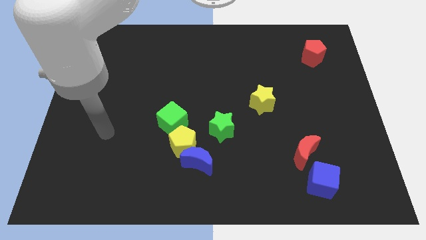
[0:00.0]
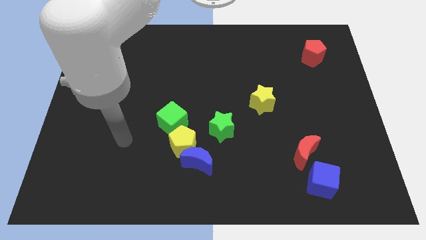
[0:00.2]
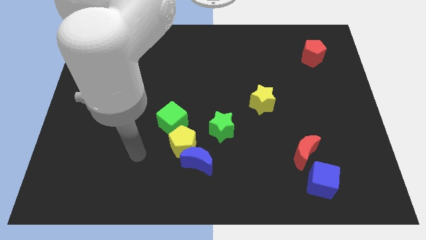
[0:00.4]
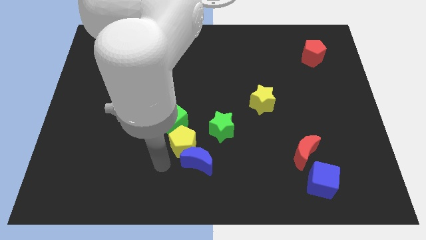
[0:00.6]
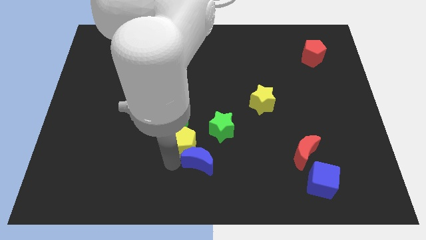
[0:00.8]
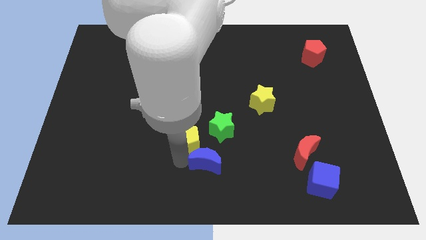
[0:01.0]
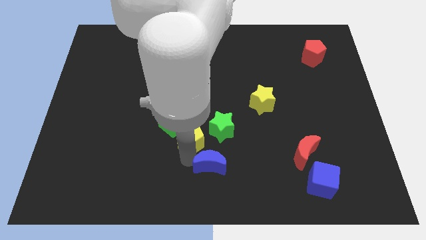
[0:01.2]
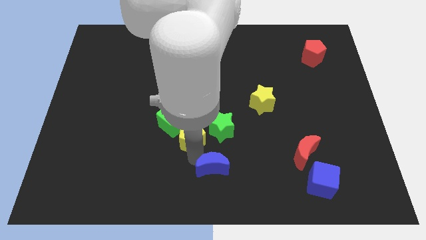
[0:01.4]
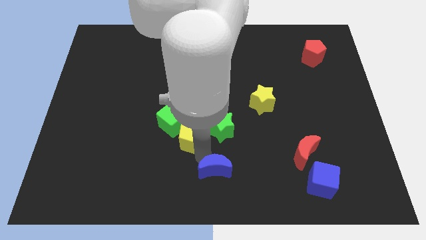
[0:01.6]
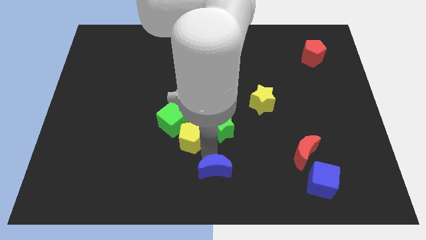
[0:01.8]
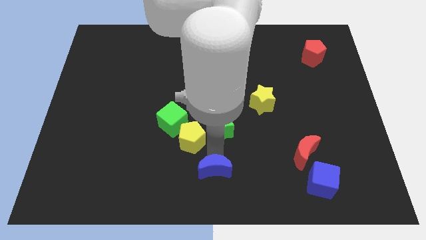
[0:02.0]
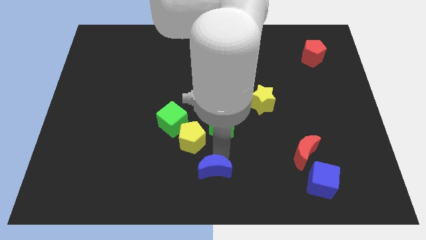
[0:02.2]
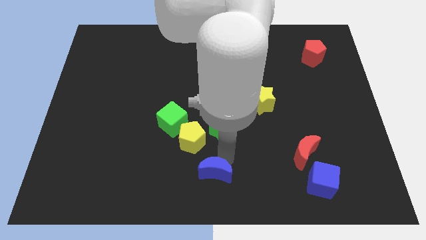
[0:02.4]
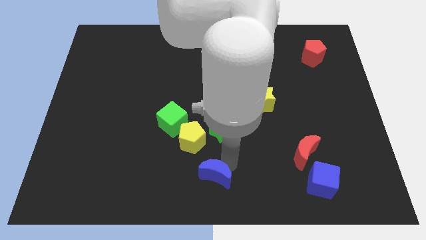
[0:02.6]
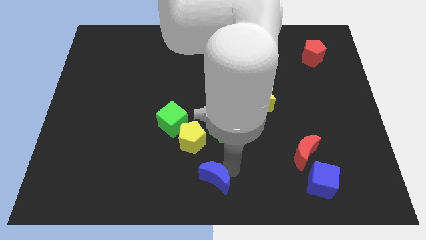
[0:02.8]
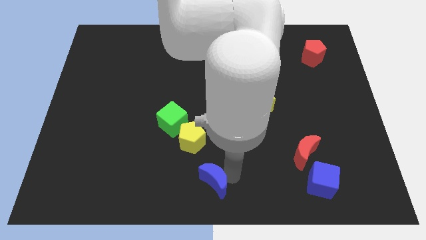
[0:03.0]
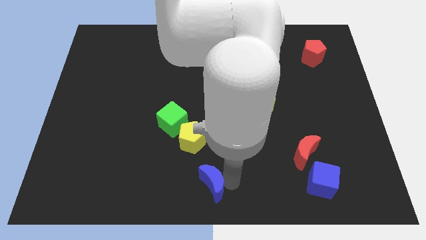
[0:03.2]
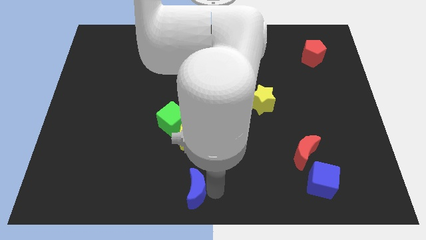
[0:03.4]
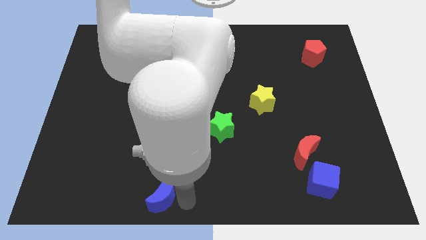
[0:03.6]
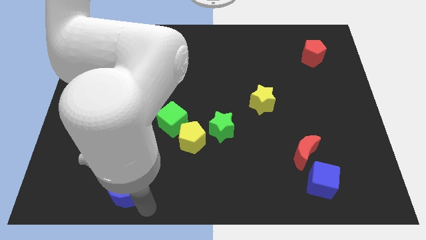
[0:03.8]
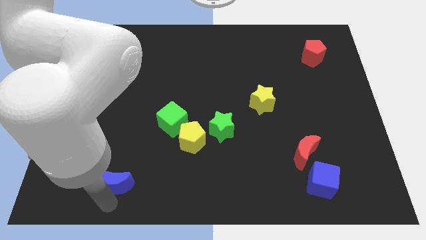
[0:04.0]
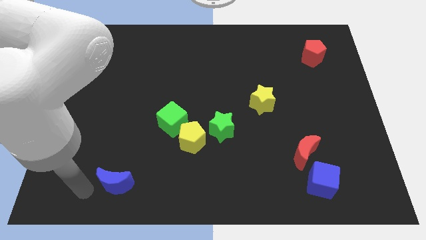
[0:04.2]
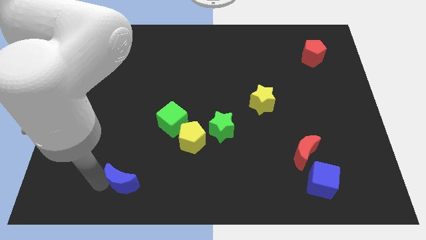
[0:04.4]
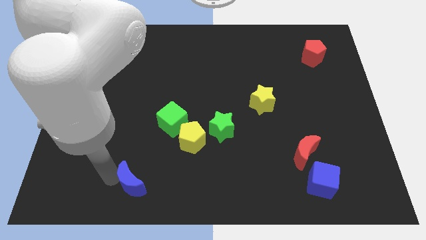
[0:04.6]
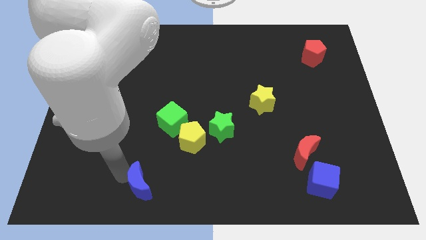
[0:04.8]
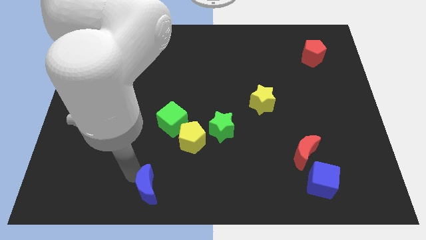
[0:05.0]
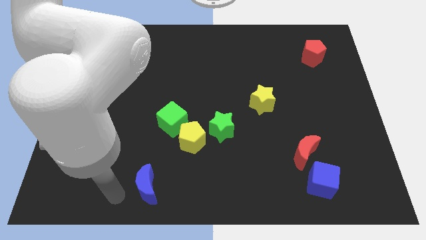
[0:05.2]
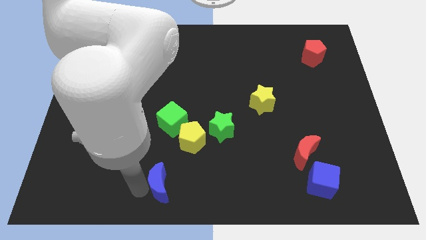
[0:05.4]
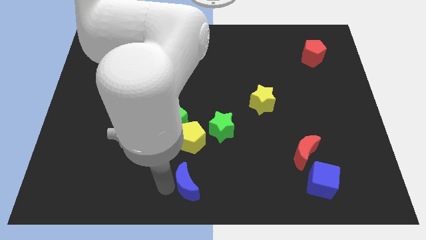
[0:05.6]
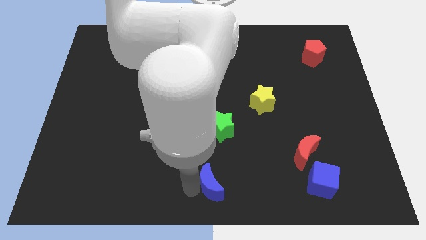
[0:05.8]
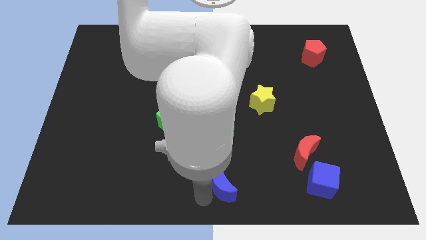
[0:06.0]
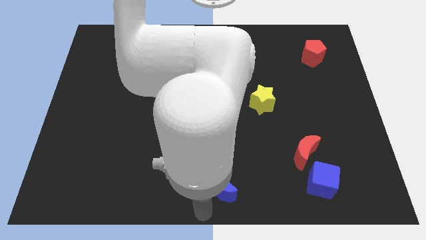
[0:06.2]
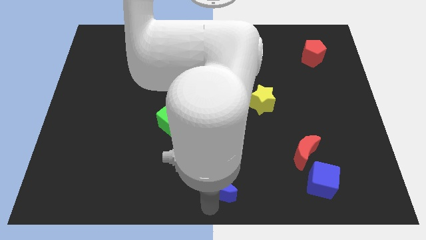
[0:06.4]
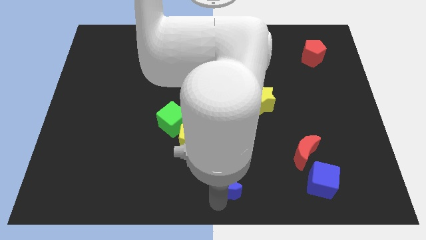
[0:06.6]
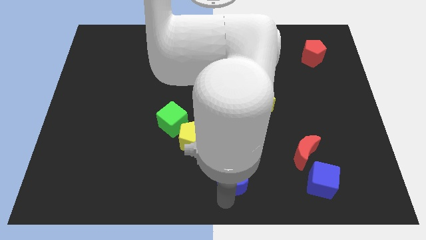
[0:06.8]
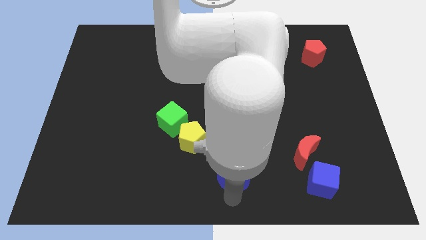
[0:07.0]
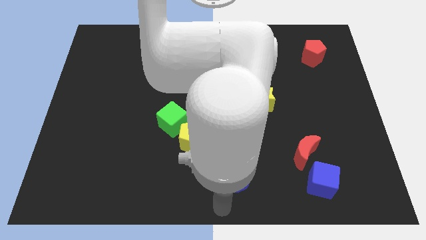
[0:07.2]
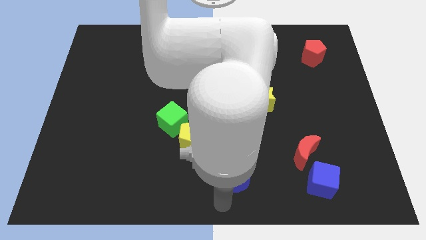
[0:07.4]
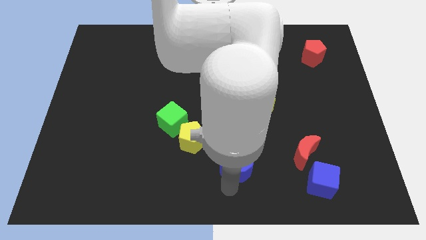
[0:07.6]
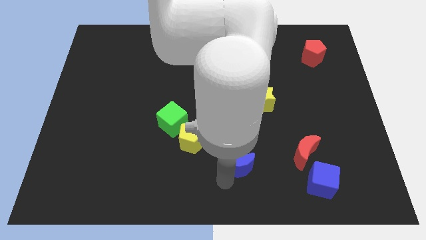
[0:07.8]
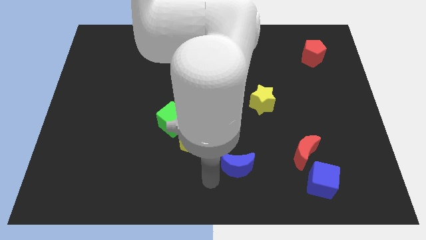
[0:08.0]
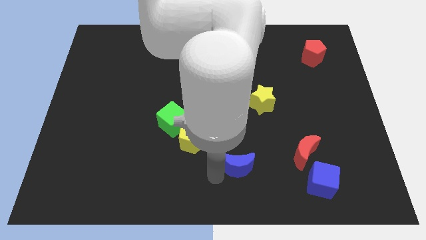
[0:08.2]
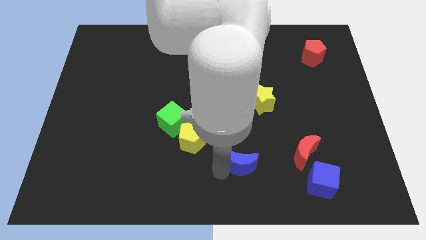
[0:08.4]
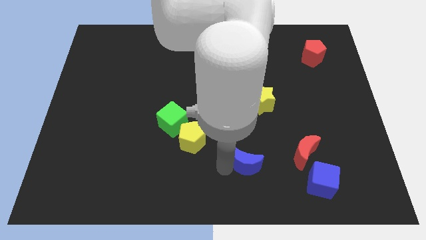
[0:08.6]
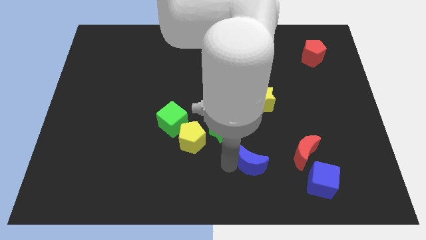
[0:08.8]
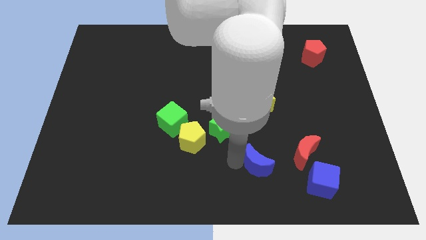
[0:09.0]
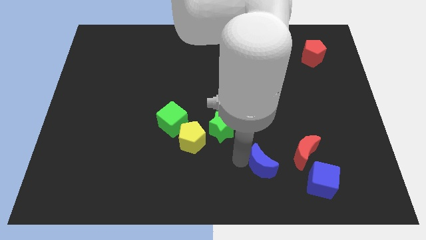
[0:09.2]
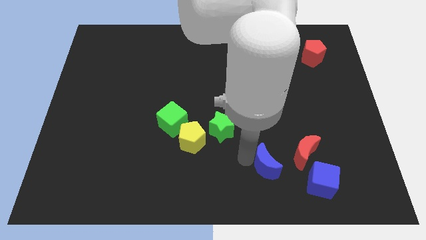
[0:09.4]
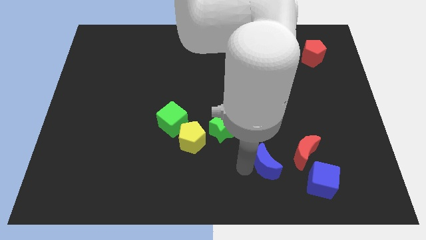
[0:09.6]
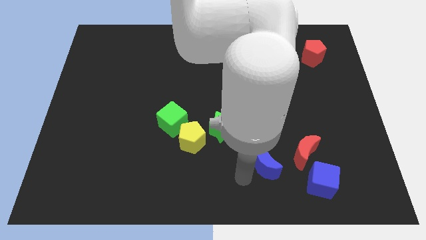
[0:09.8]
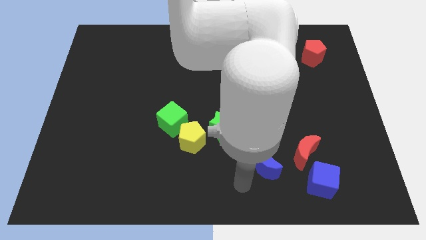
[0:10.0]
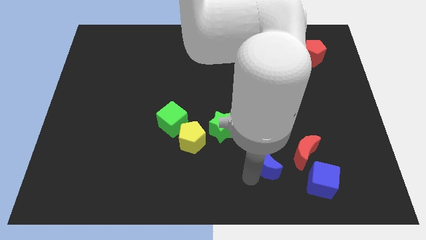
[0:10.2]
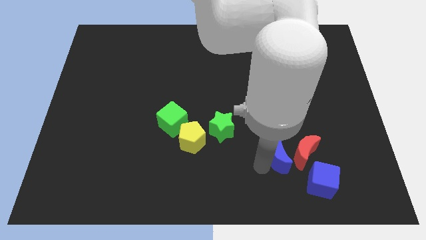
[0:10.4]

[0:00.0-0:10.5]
put the blue moon towards the red moon

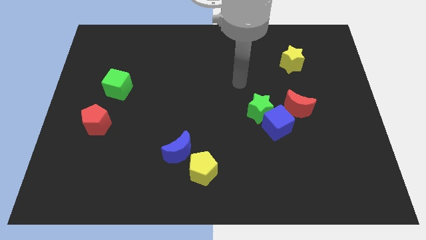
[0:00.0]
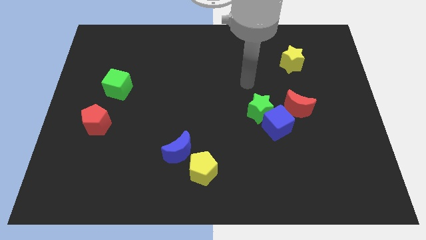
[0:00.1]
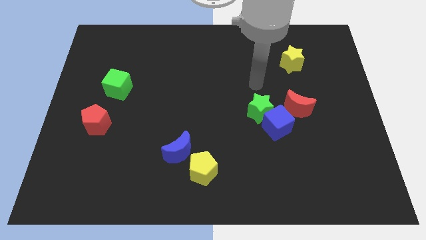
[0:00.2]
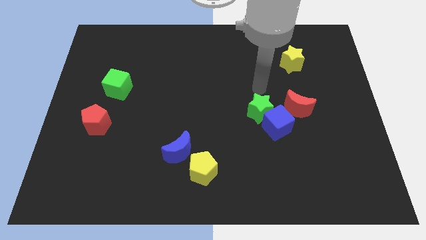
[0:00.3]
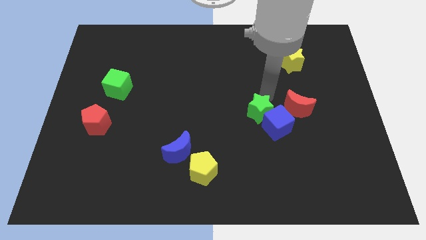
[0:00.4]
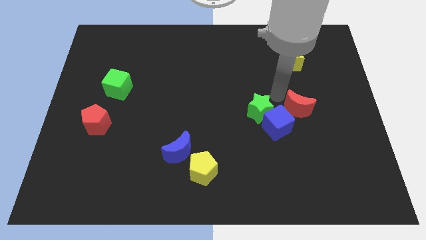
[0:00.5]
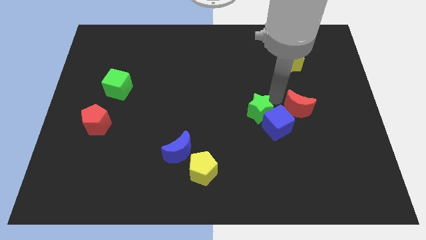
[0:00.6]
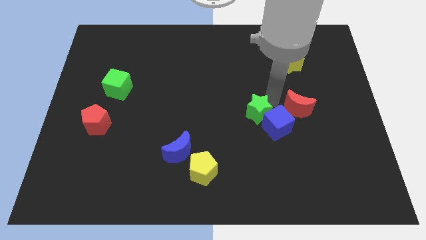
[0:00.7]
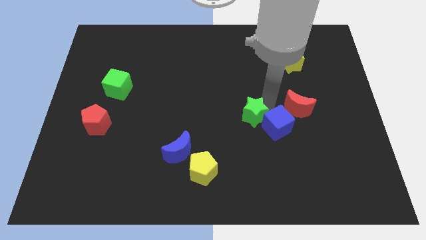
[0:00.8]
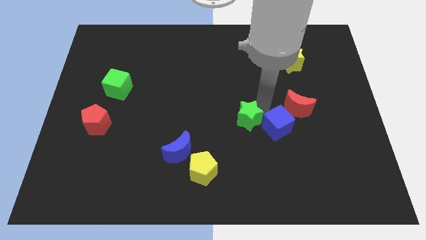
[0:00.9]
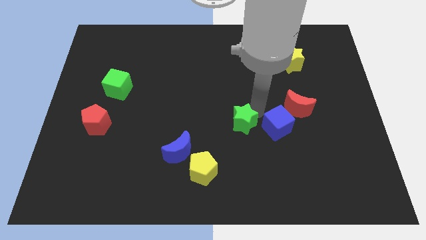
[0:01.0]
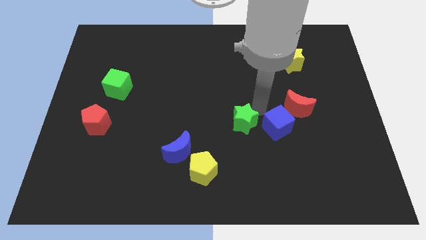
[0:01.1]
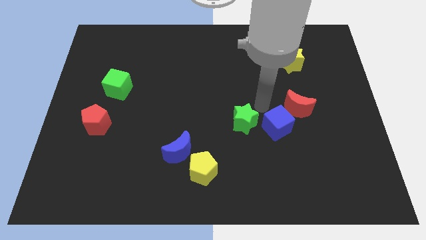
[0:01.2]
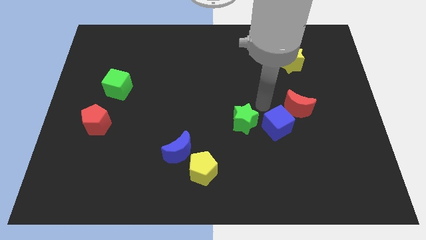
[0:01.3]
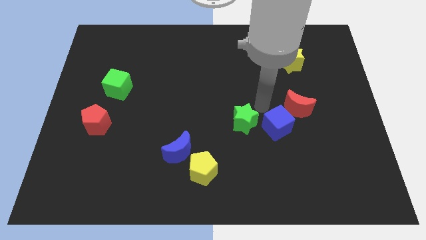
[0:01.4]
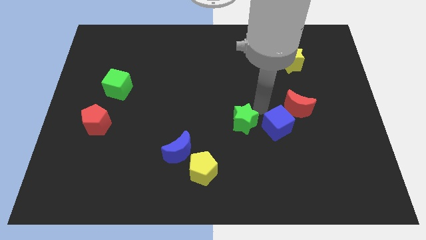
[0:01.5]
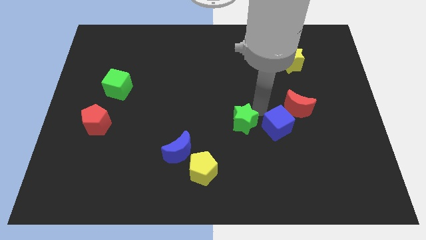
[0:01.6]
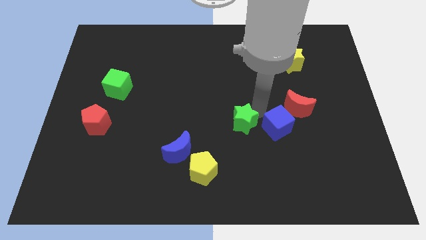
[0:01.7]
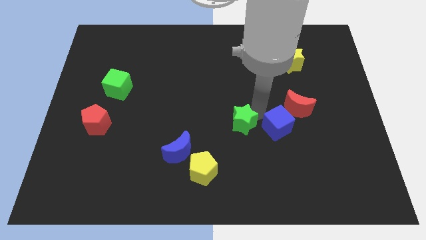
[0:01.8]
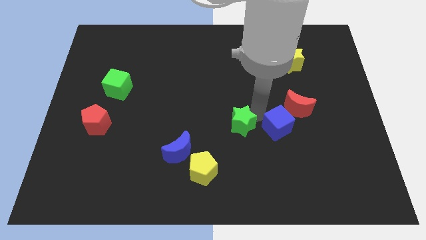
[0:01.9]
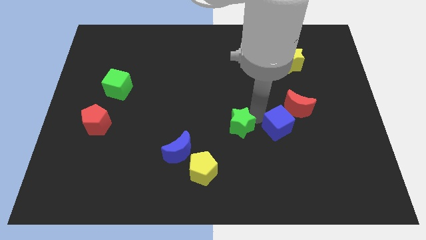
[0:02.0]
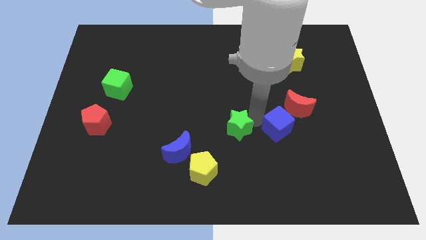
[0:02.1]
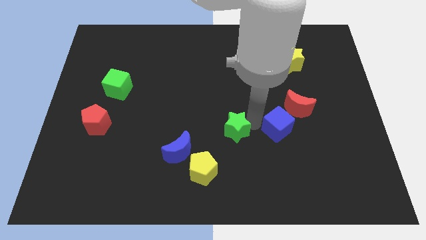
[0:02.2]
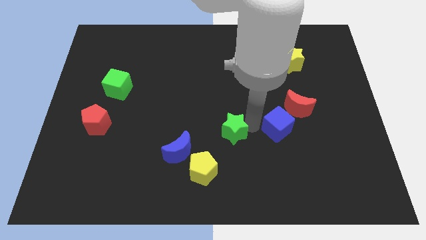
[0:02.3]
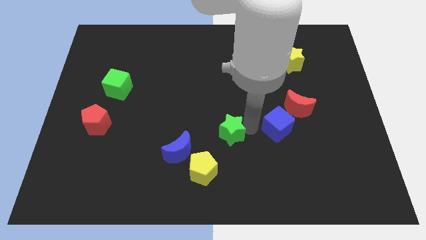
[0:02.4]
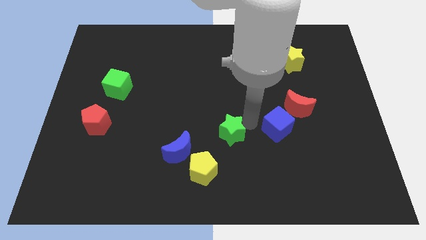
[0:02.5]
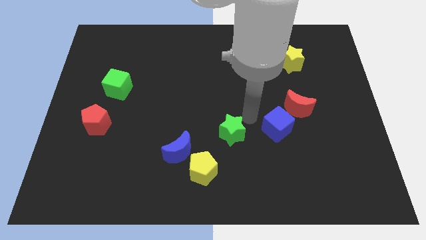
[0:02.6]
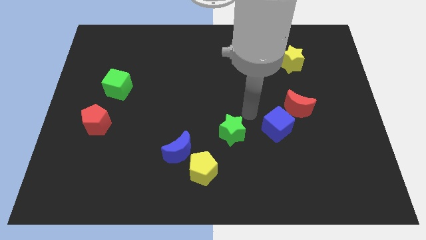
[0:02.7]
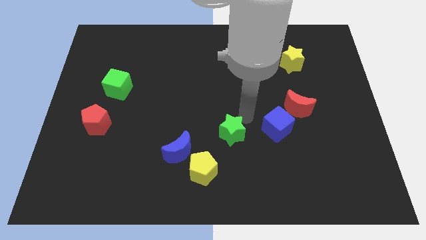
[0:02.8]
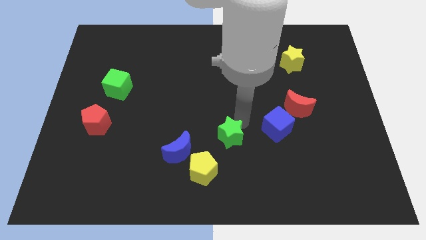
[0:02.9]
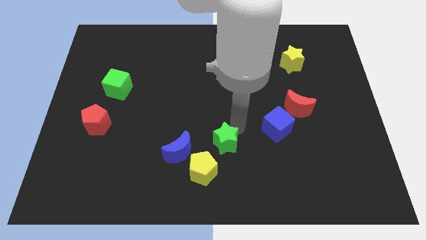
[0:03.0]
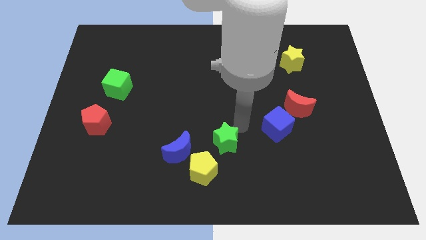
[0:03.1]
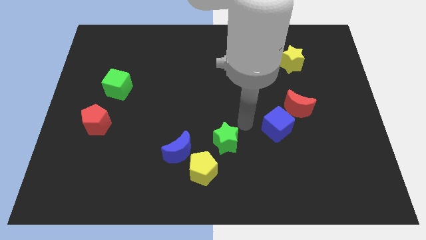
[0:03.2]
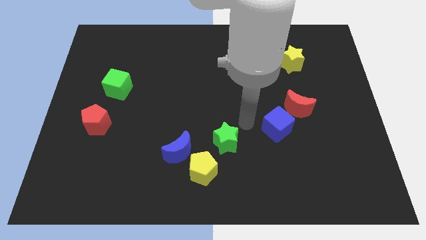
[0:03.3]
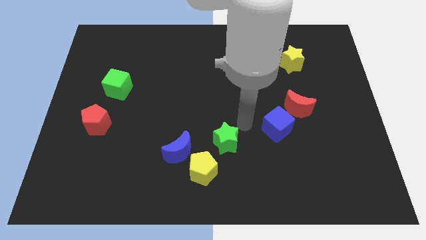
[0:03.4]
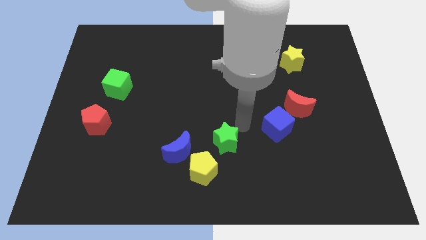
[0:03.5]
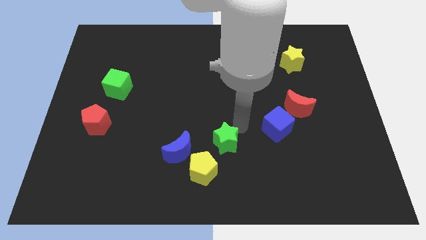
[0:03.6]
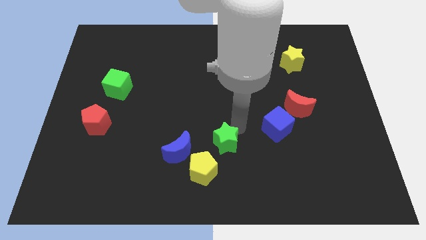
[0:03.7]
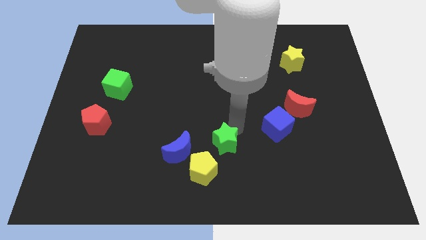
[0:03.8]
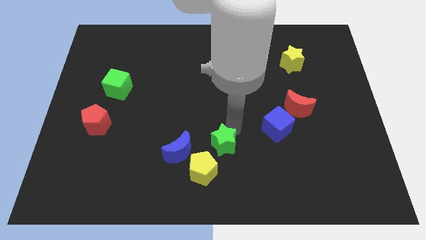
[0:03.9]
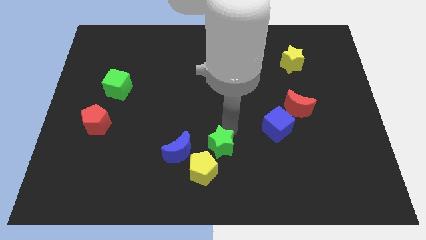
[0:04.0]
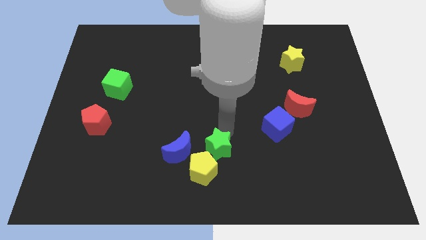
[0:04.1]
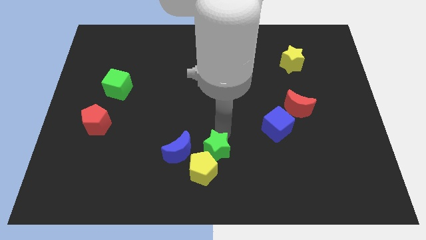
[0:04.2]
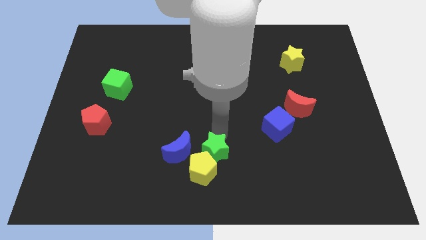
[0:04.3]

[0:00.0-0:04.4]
put the green star to the yellow pentagon
